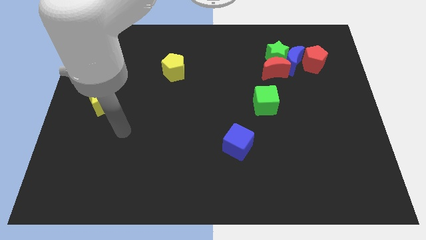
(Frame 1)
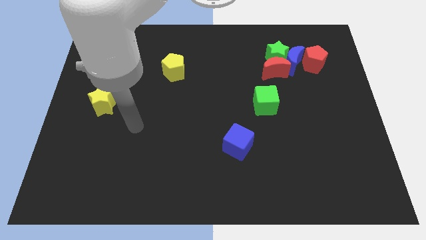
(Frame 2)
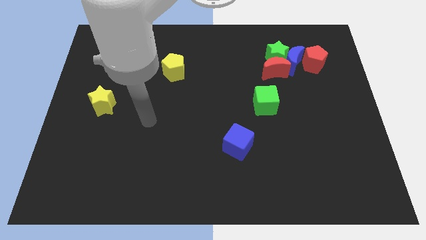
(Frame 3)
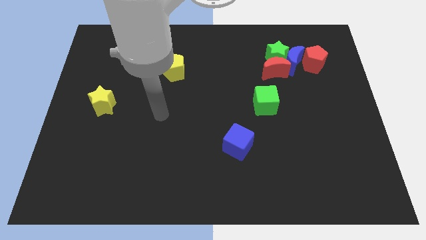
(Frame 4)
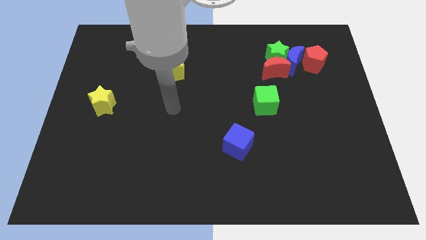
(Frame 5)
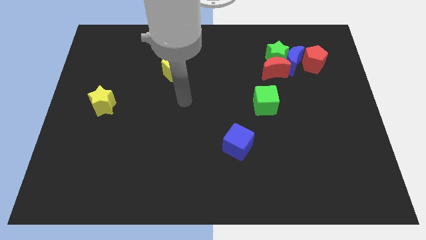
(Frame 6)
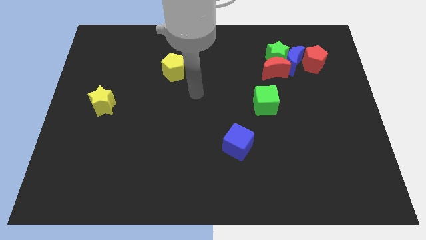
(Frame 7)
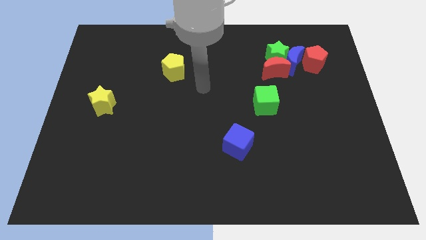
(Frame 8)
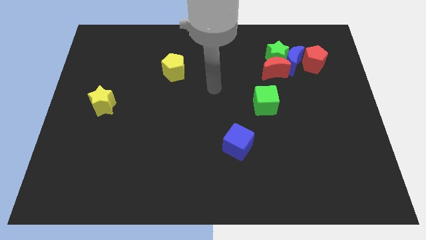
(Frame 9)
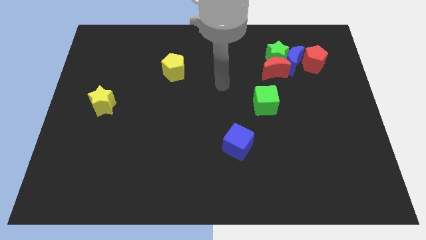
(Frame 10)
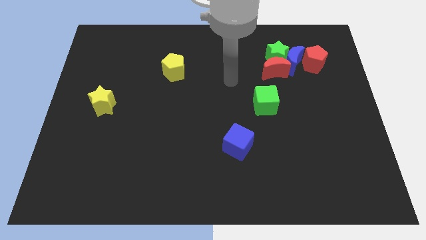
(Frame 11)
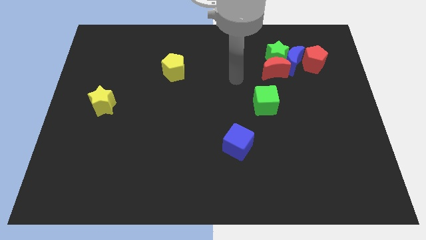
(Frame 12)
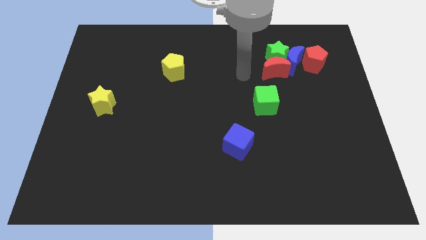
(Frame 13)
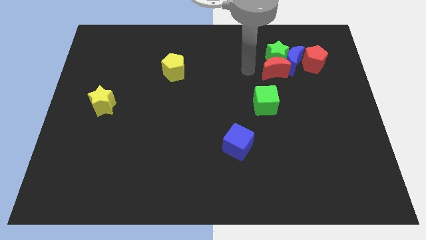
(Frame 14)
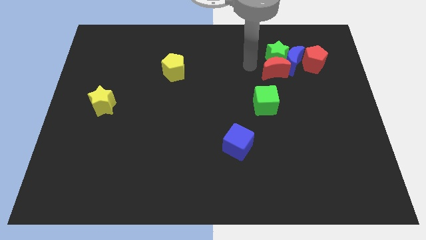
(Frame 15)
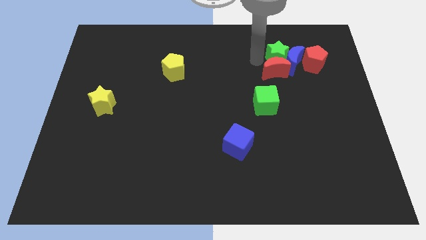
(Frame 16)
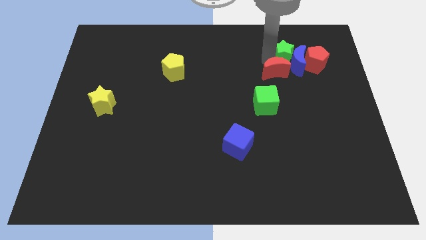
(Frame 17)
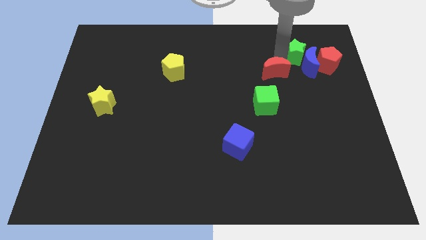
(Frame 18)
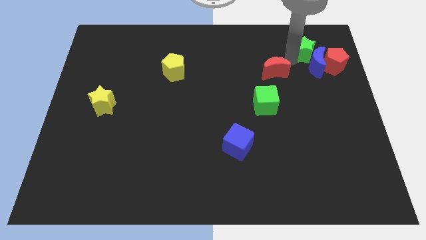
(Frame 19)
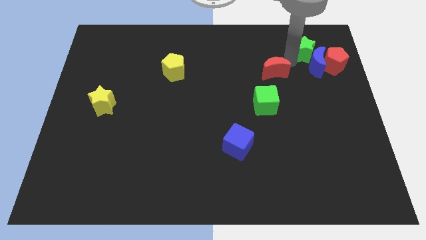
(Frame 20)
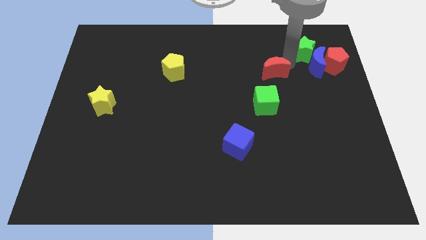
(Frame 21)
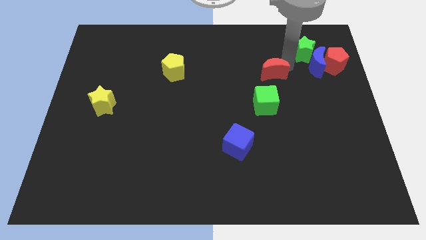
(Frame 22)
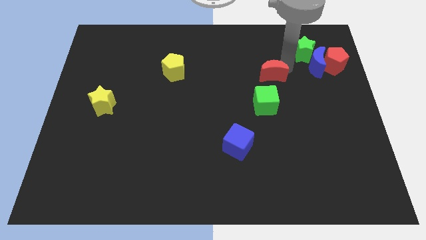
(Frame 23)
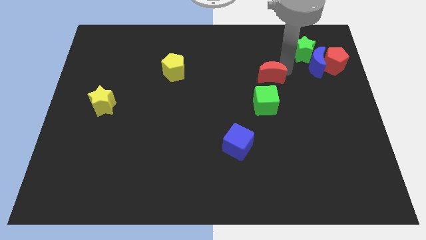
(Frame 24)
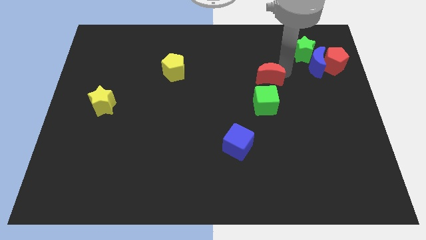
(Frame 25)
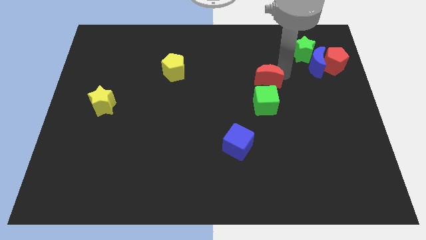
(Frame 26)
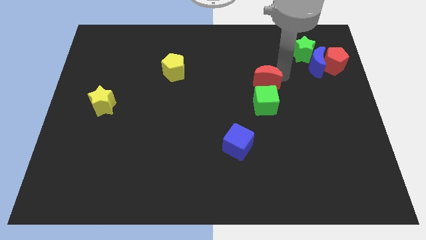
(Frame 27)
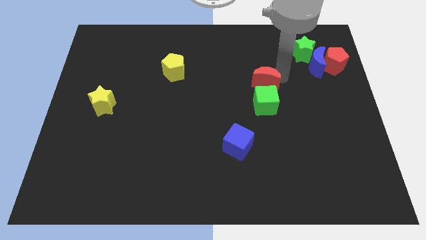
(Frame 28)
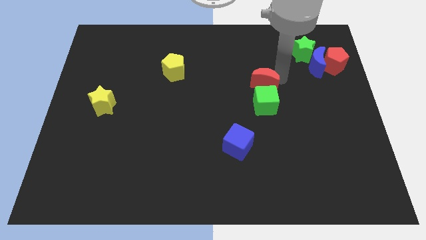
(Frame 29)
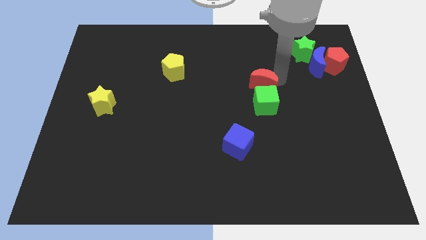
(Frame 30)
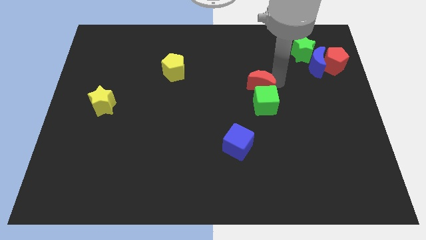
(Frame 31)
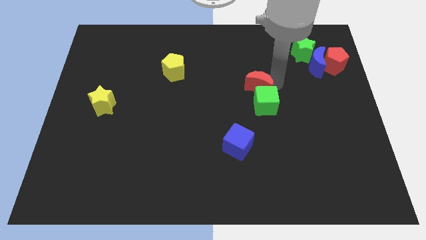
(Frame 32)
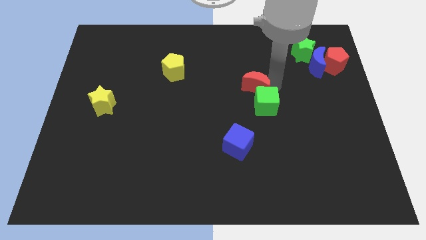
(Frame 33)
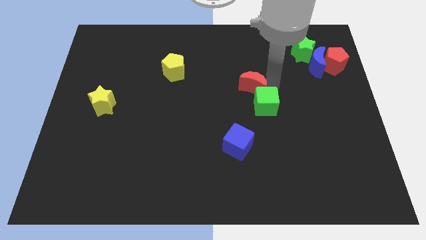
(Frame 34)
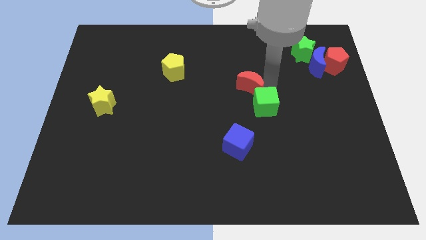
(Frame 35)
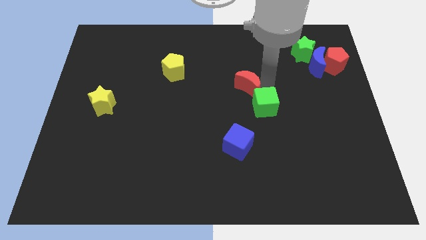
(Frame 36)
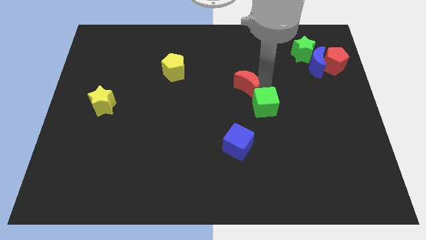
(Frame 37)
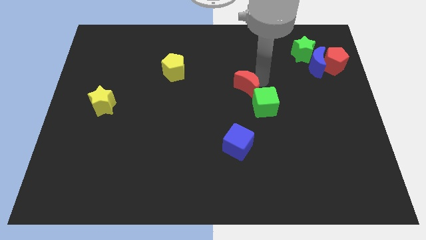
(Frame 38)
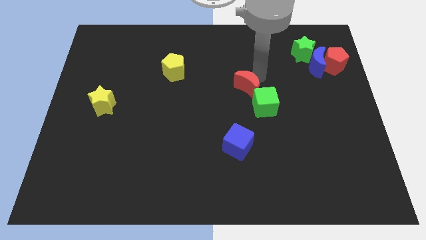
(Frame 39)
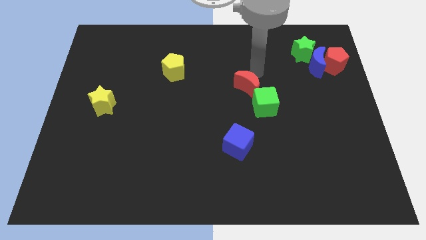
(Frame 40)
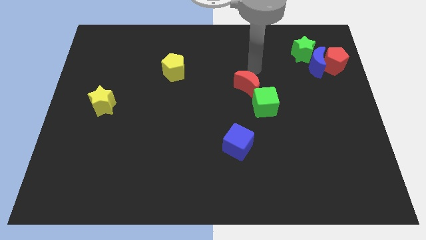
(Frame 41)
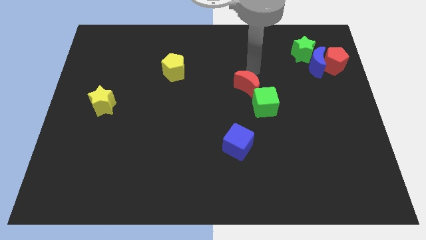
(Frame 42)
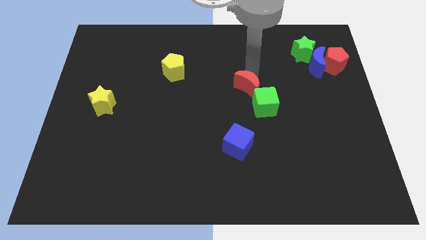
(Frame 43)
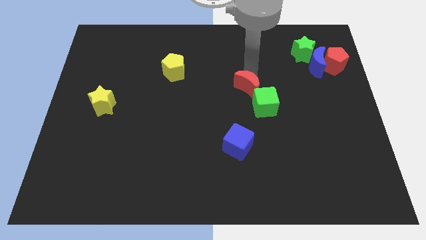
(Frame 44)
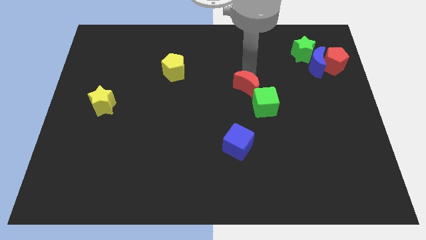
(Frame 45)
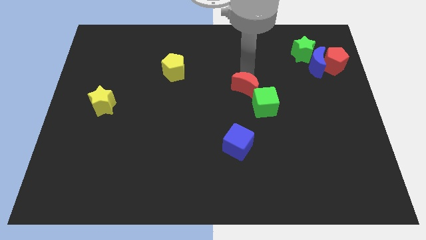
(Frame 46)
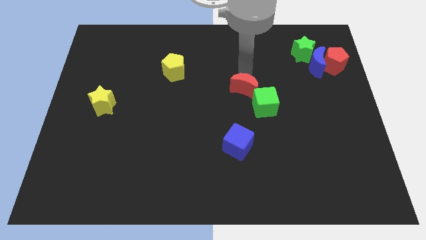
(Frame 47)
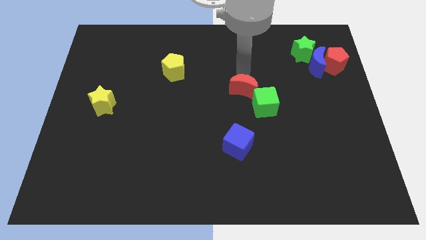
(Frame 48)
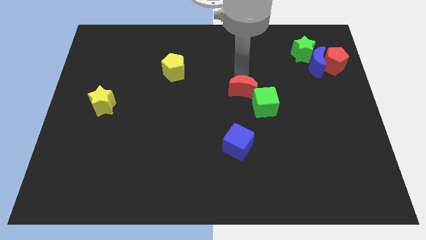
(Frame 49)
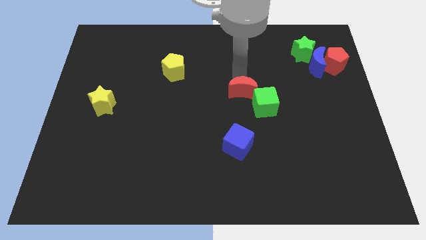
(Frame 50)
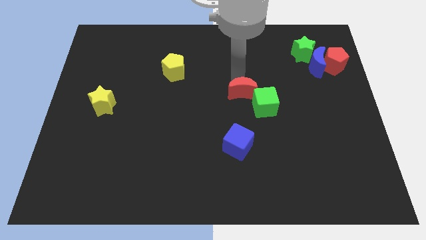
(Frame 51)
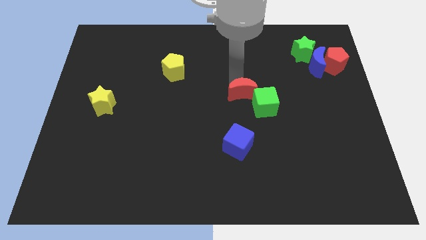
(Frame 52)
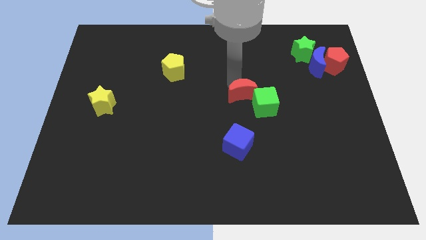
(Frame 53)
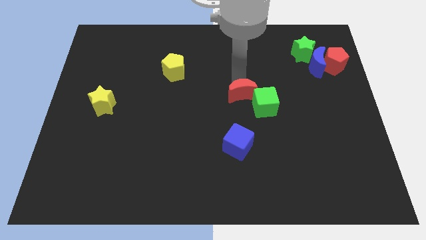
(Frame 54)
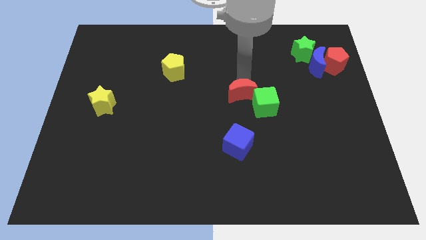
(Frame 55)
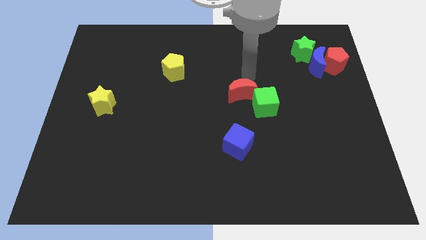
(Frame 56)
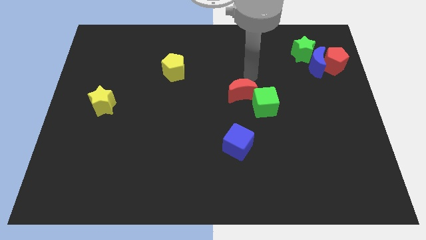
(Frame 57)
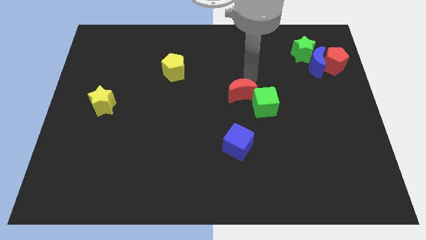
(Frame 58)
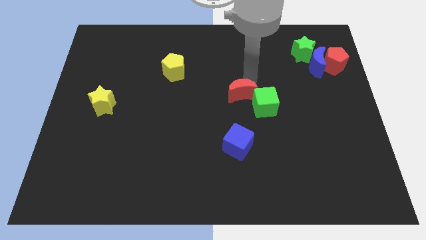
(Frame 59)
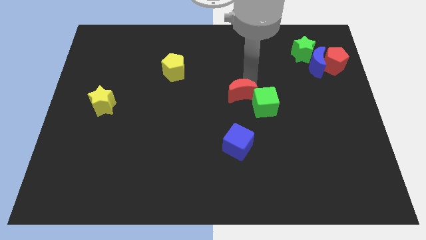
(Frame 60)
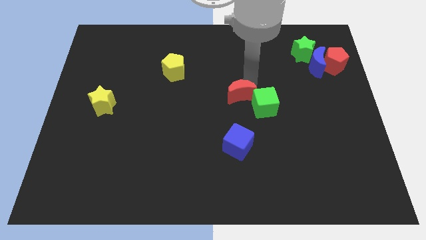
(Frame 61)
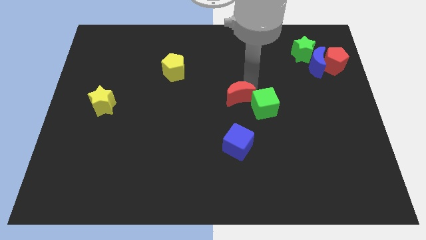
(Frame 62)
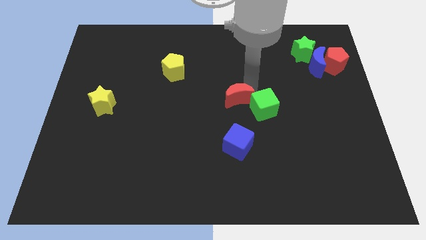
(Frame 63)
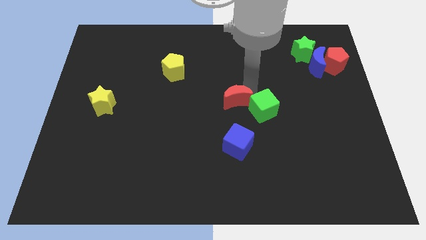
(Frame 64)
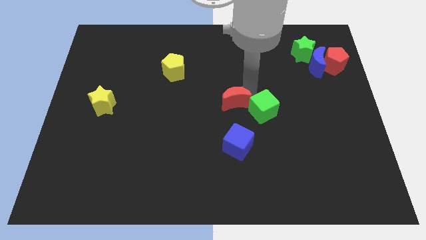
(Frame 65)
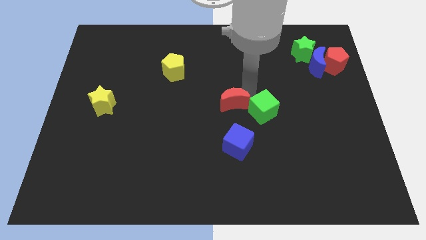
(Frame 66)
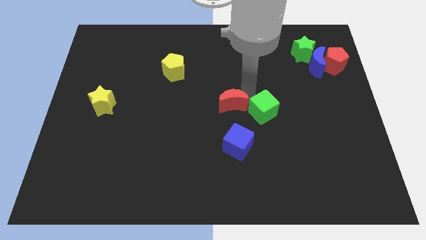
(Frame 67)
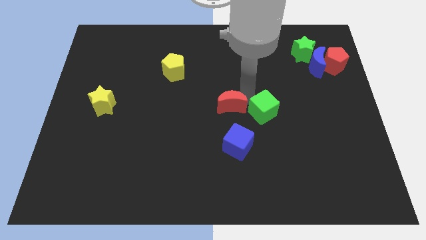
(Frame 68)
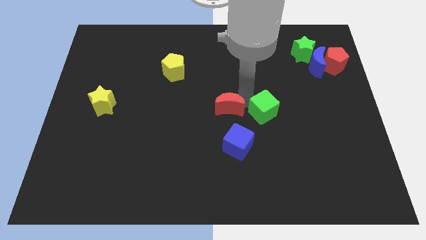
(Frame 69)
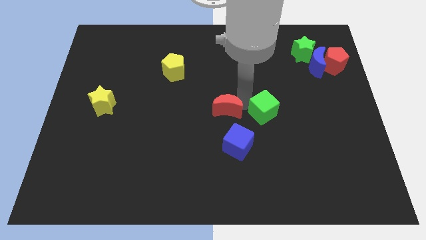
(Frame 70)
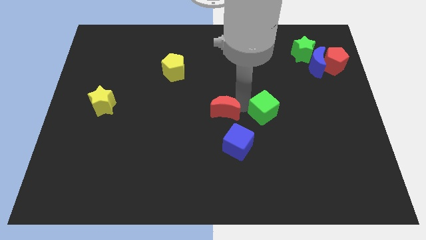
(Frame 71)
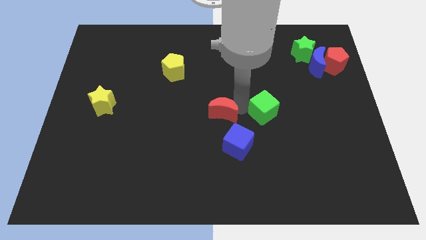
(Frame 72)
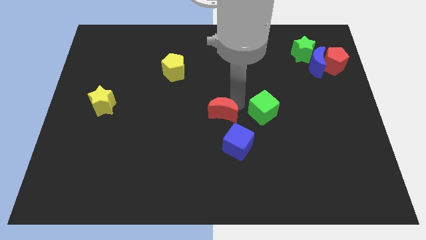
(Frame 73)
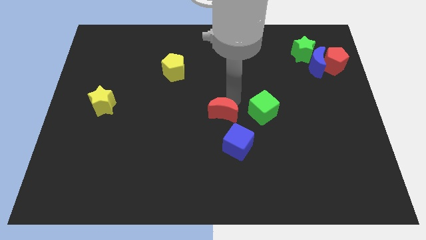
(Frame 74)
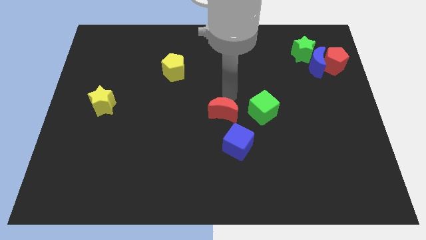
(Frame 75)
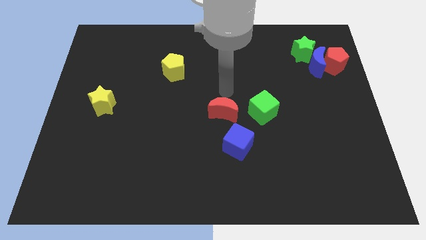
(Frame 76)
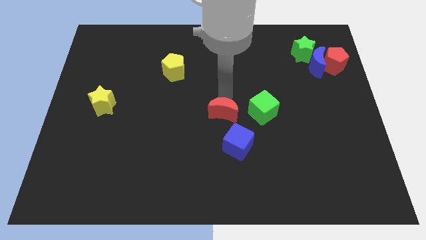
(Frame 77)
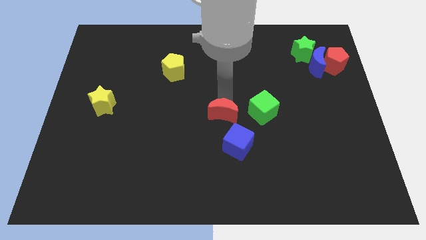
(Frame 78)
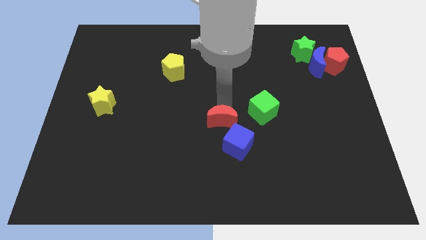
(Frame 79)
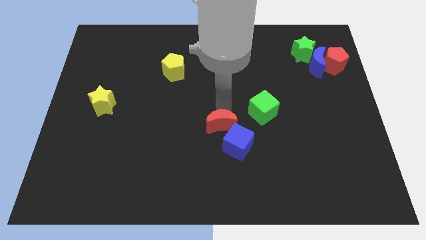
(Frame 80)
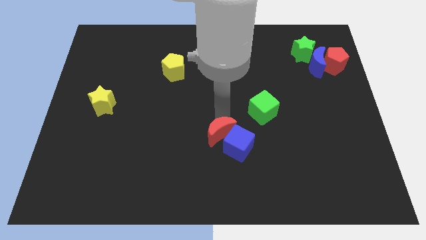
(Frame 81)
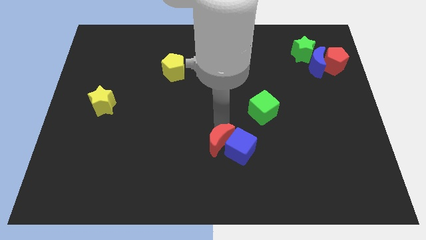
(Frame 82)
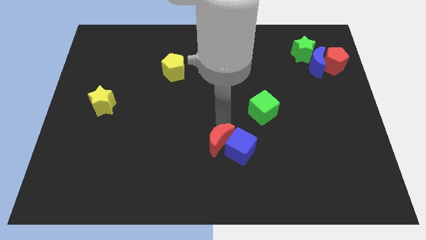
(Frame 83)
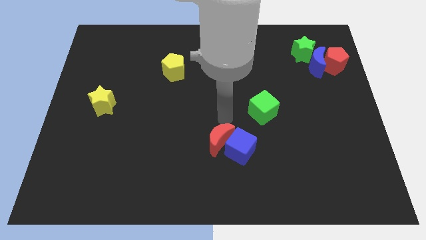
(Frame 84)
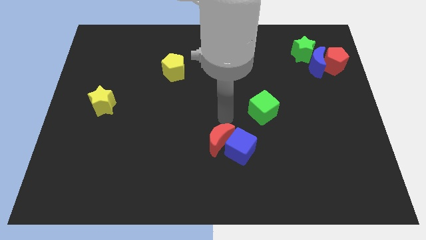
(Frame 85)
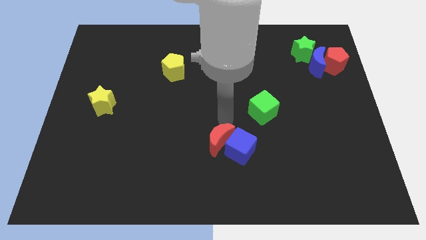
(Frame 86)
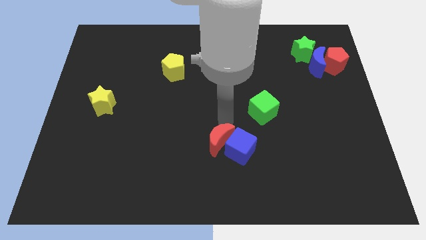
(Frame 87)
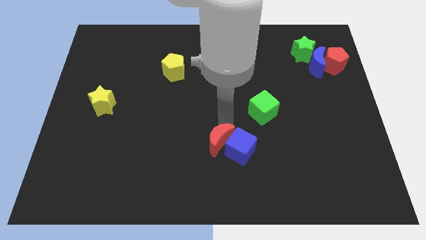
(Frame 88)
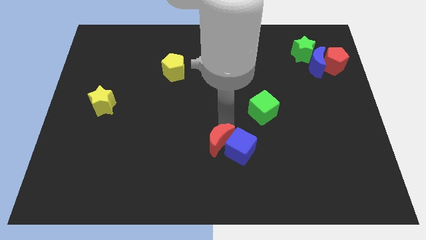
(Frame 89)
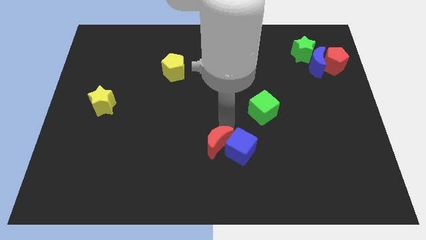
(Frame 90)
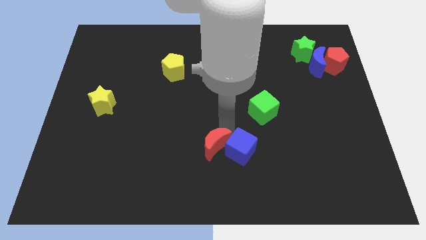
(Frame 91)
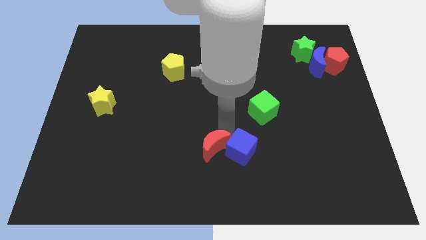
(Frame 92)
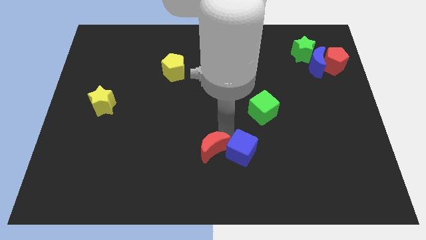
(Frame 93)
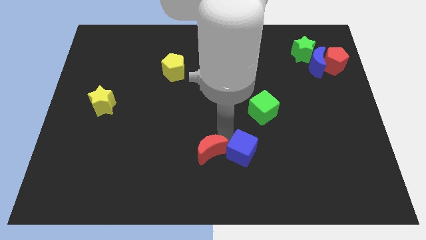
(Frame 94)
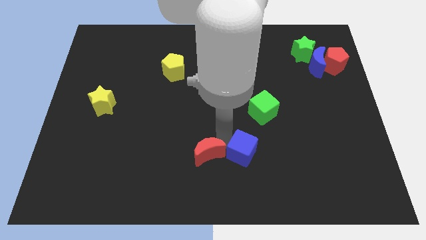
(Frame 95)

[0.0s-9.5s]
slide the red moon to the bottom side
